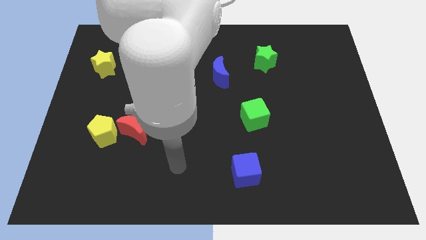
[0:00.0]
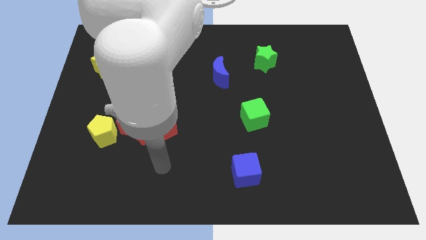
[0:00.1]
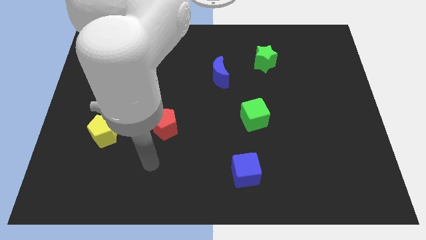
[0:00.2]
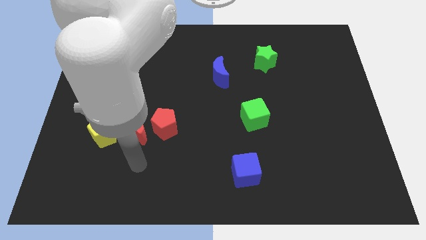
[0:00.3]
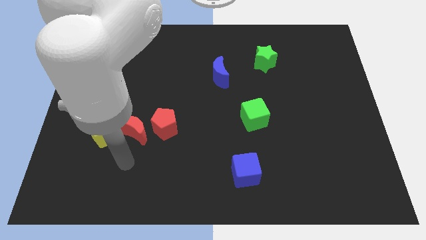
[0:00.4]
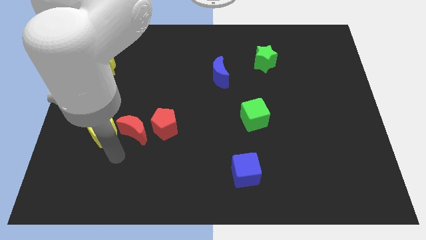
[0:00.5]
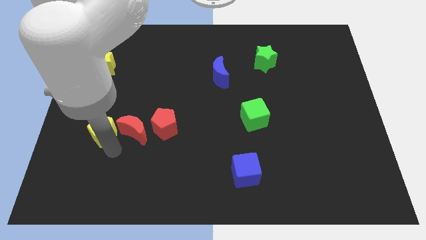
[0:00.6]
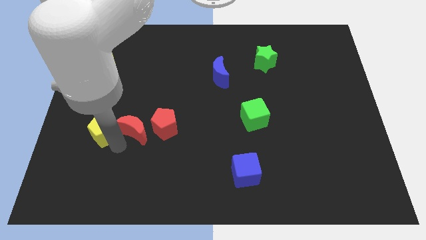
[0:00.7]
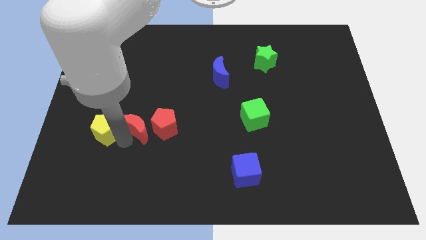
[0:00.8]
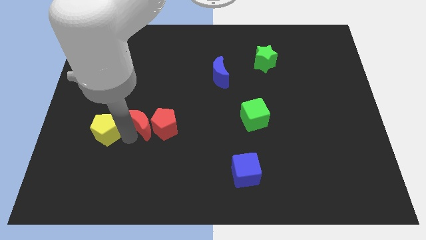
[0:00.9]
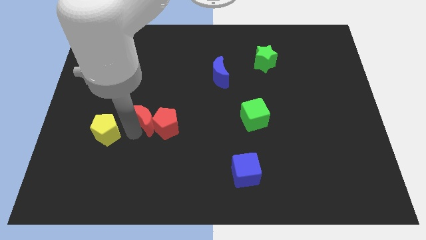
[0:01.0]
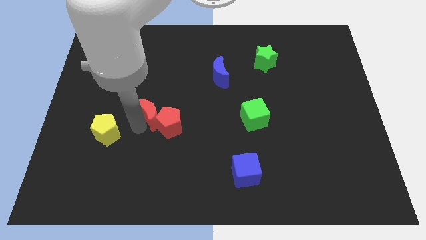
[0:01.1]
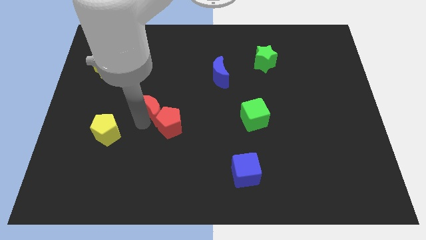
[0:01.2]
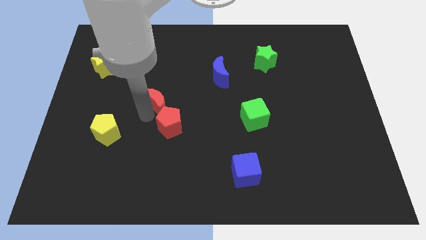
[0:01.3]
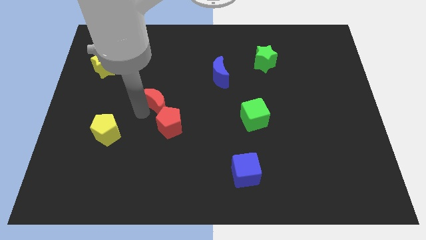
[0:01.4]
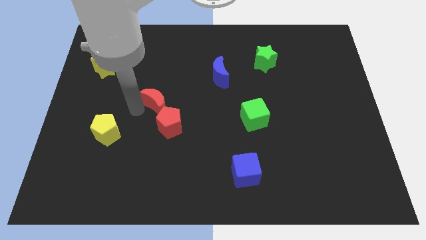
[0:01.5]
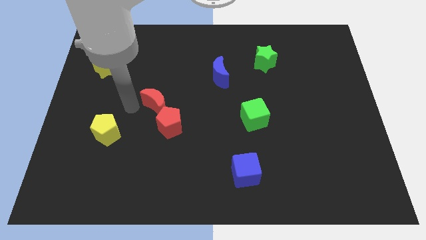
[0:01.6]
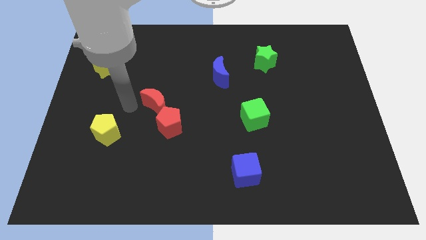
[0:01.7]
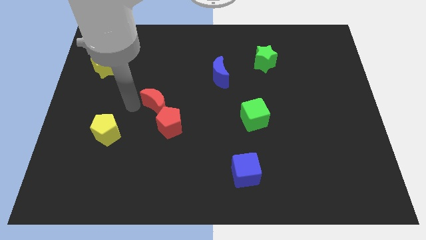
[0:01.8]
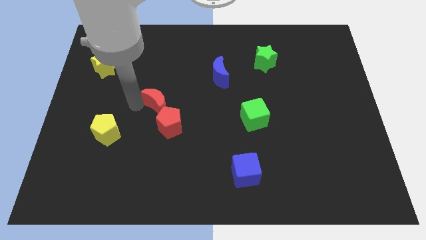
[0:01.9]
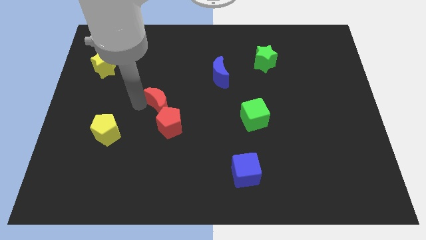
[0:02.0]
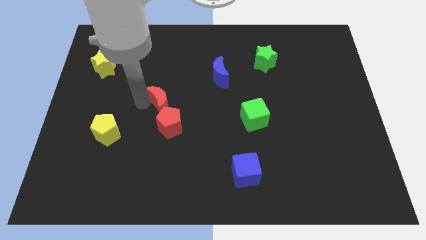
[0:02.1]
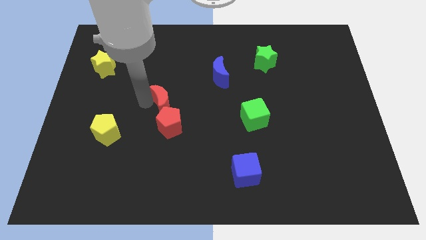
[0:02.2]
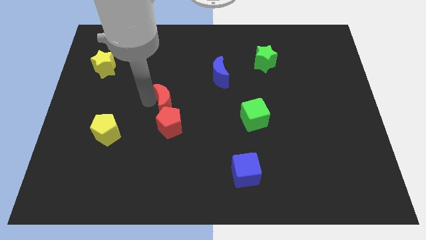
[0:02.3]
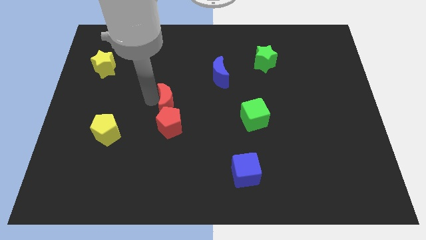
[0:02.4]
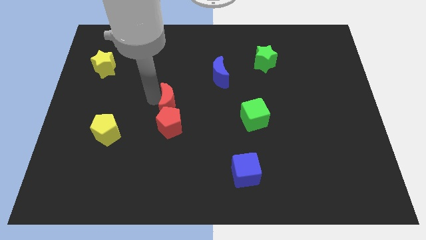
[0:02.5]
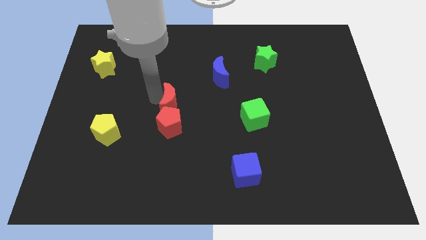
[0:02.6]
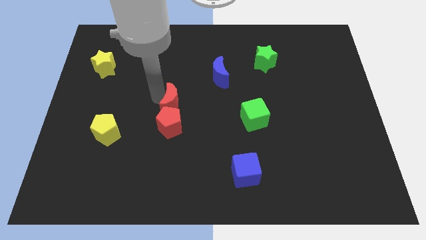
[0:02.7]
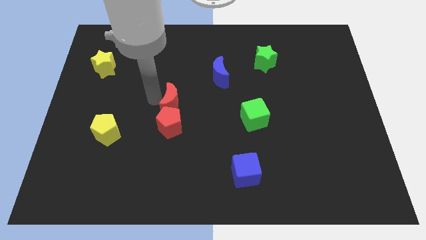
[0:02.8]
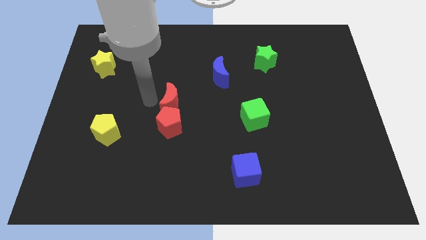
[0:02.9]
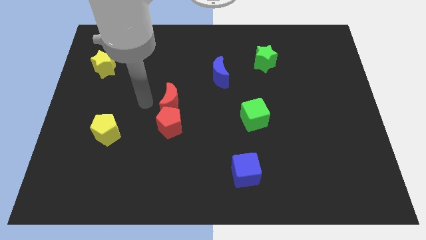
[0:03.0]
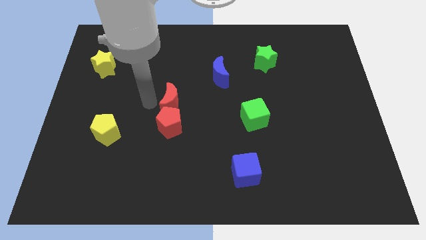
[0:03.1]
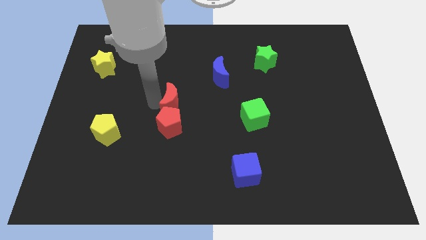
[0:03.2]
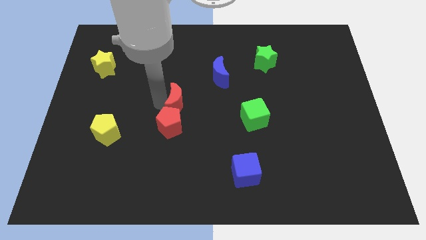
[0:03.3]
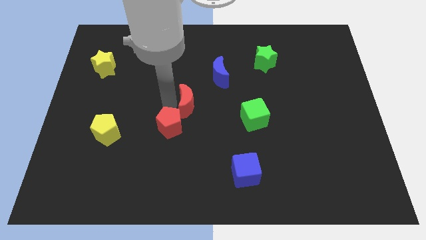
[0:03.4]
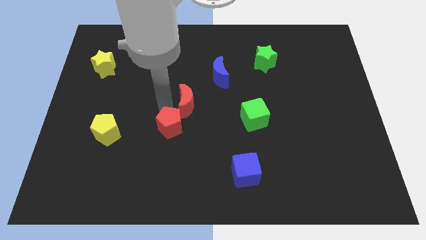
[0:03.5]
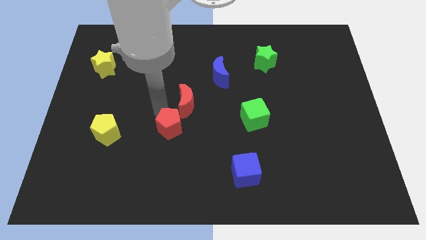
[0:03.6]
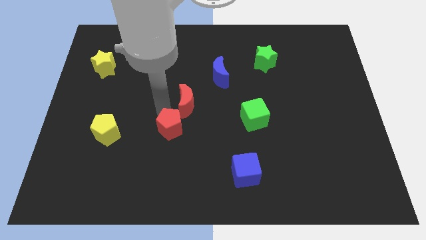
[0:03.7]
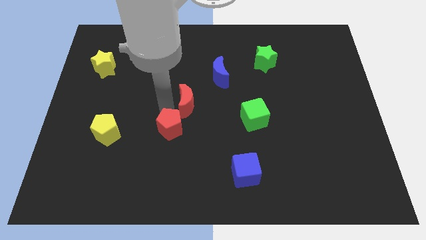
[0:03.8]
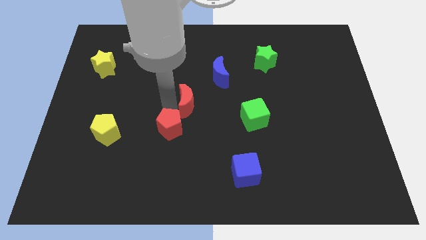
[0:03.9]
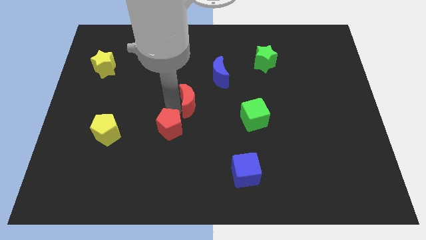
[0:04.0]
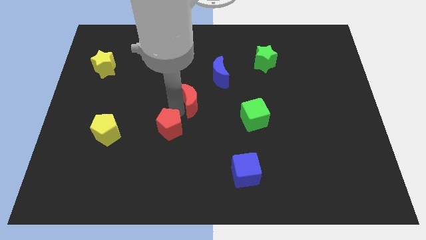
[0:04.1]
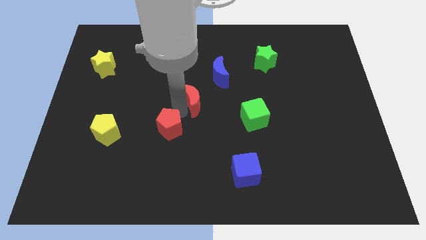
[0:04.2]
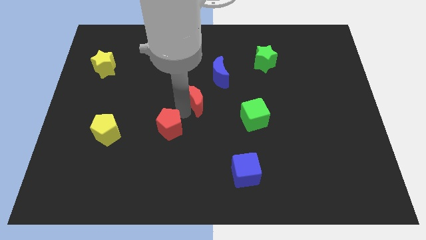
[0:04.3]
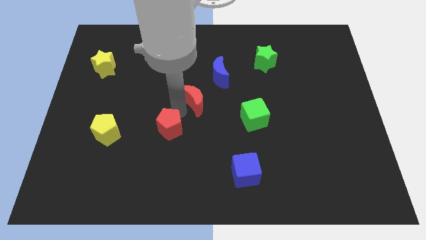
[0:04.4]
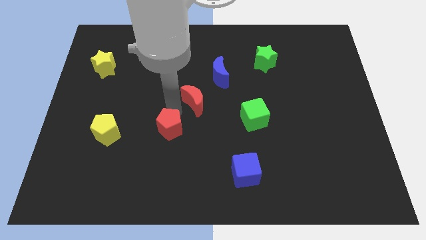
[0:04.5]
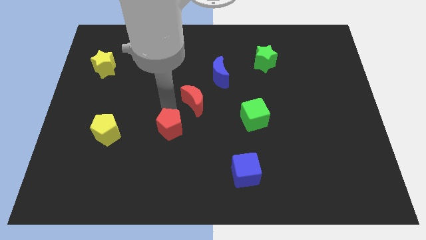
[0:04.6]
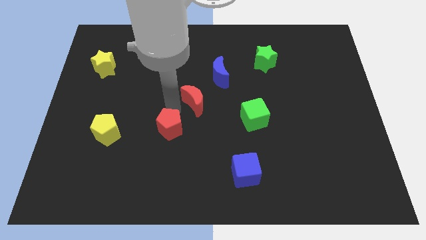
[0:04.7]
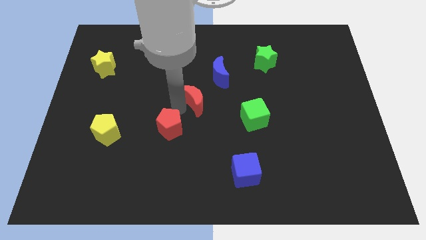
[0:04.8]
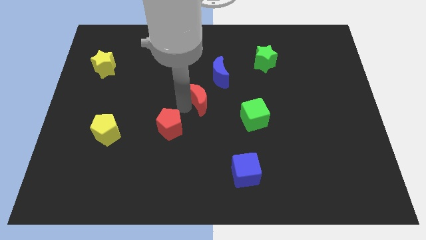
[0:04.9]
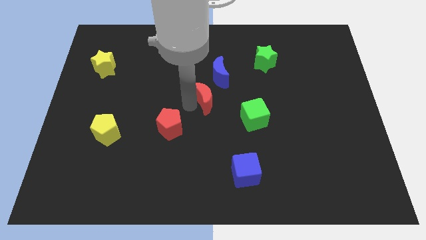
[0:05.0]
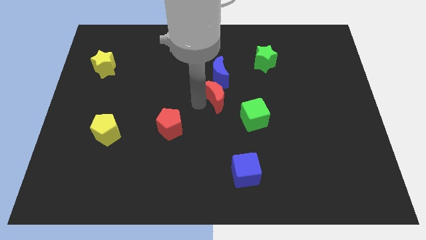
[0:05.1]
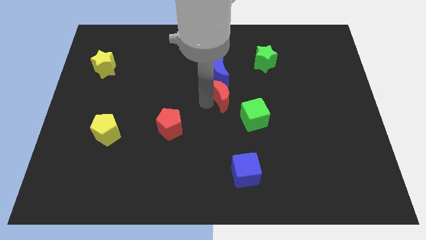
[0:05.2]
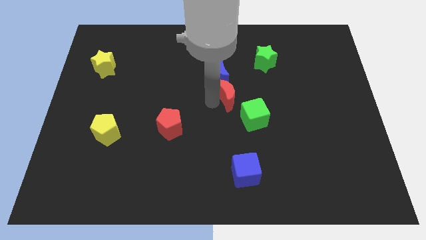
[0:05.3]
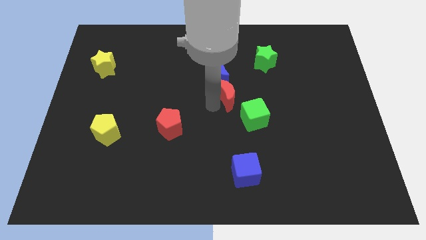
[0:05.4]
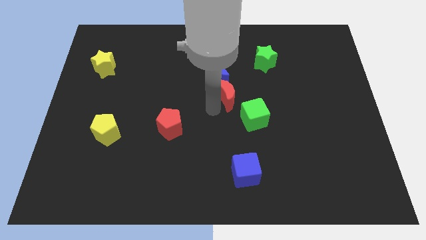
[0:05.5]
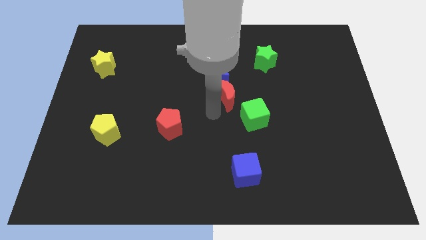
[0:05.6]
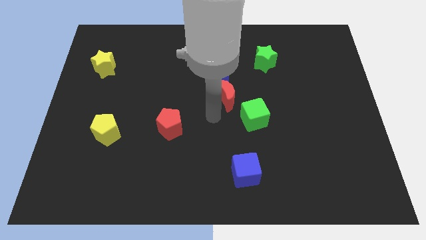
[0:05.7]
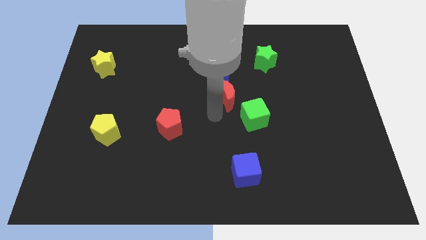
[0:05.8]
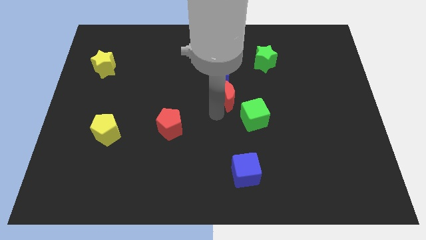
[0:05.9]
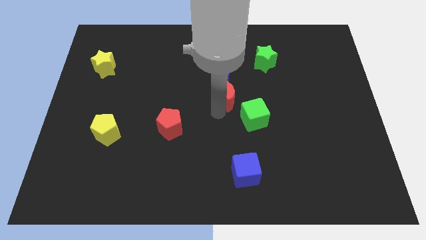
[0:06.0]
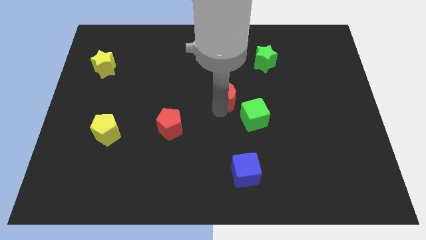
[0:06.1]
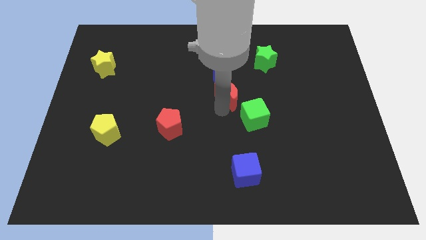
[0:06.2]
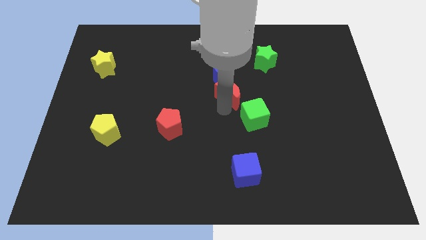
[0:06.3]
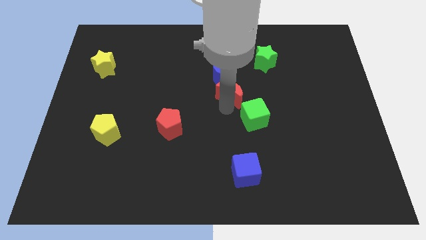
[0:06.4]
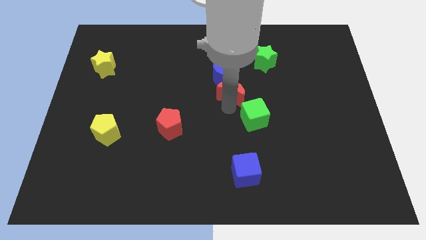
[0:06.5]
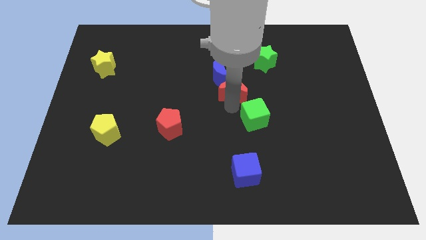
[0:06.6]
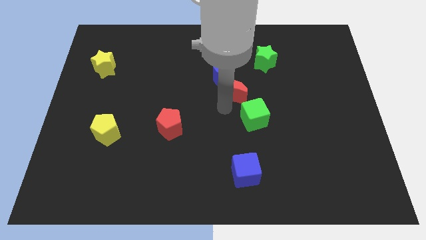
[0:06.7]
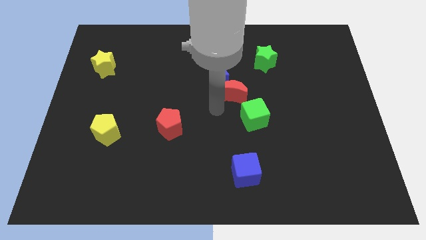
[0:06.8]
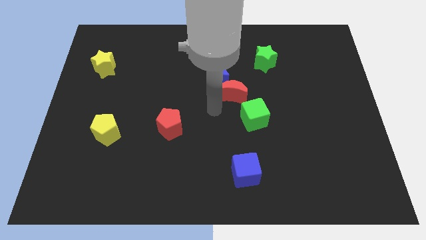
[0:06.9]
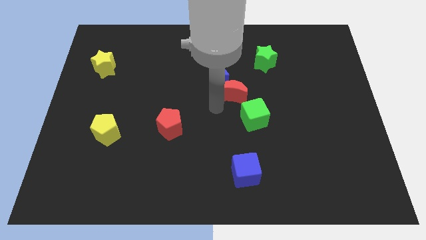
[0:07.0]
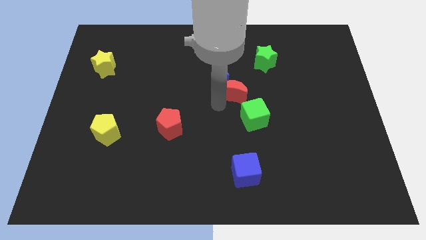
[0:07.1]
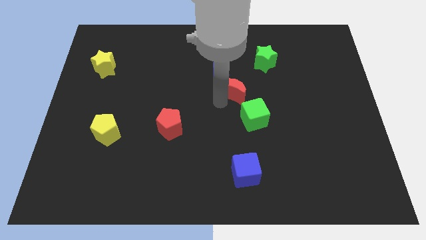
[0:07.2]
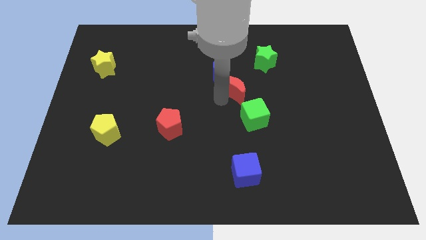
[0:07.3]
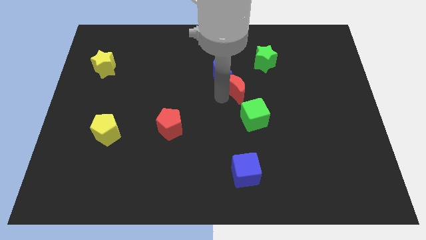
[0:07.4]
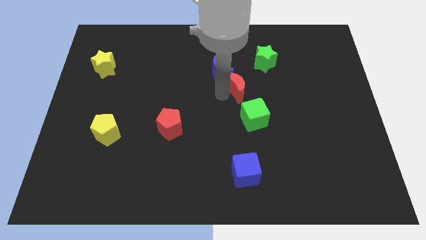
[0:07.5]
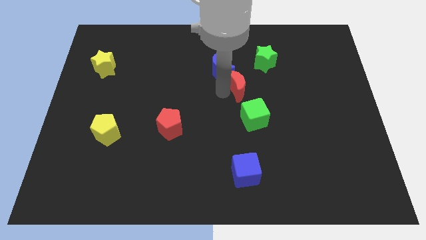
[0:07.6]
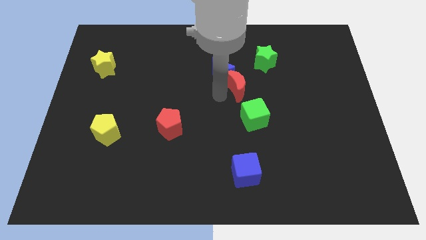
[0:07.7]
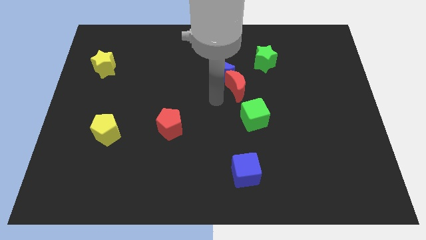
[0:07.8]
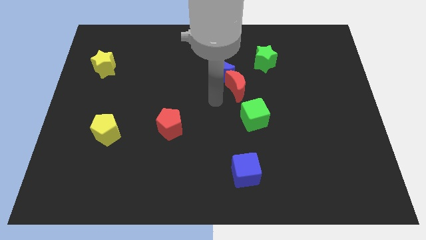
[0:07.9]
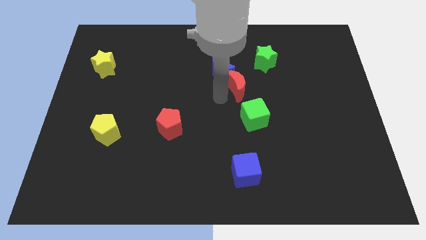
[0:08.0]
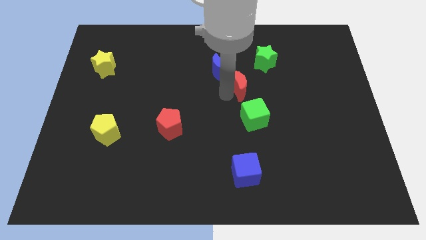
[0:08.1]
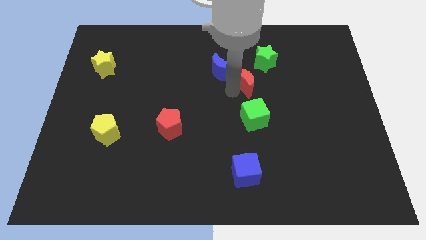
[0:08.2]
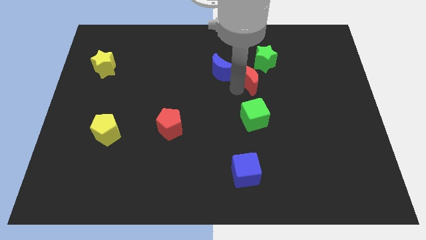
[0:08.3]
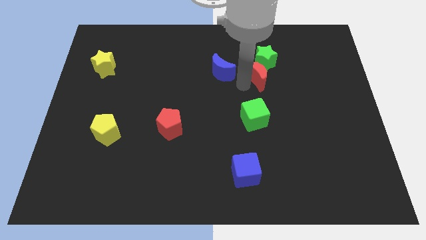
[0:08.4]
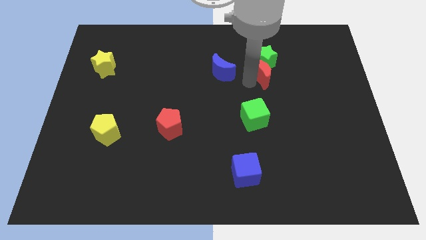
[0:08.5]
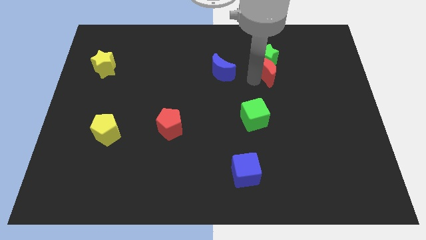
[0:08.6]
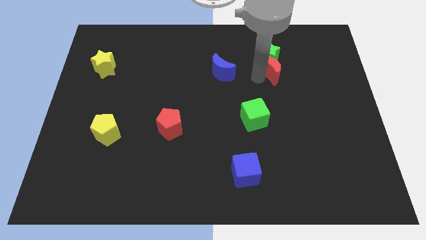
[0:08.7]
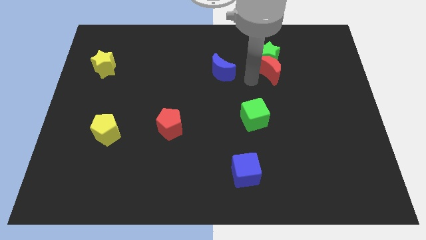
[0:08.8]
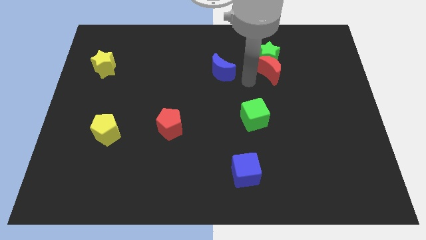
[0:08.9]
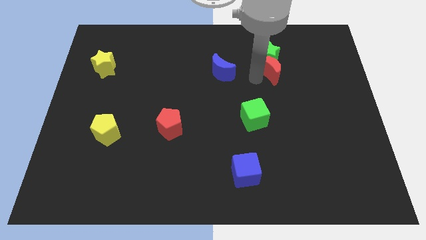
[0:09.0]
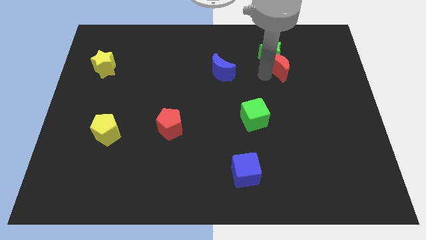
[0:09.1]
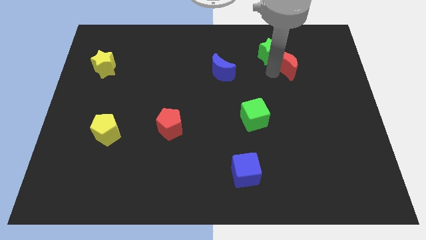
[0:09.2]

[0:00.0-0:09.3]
move the red moon to the right side of the green star
